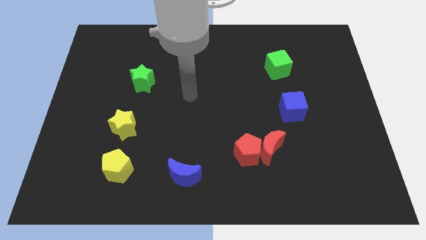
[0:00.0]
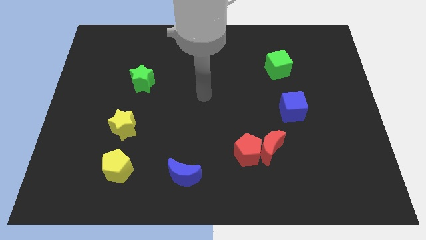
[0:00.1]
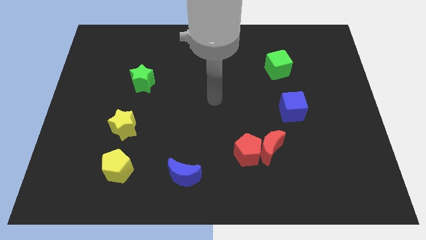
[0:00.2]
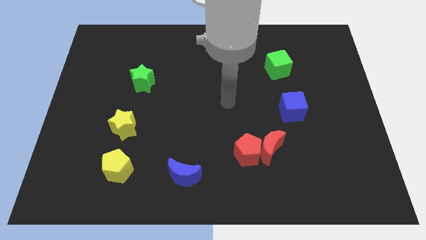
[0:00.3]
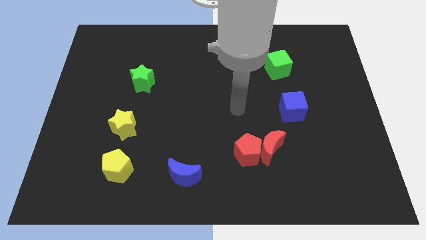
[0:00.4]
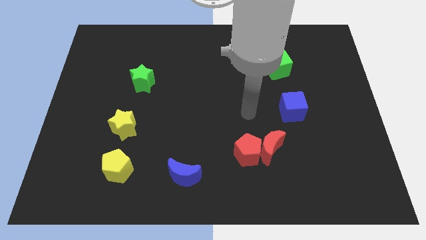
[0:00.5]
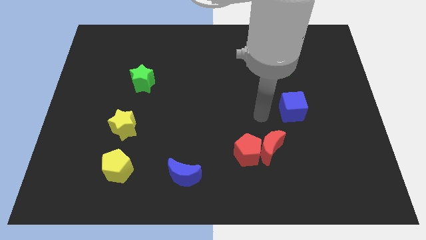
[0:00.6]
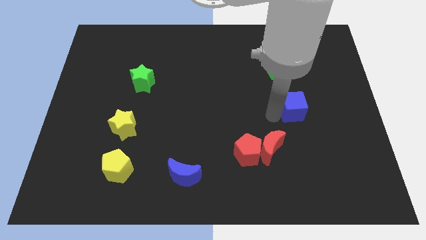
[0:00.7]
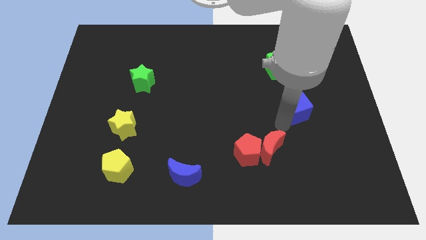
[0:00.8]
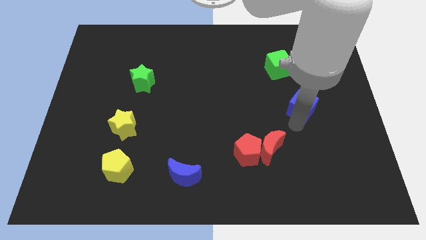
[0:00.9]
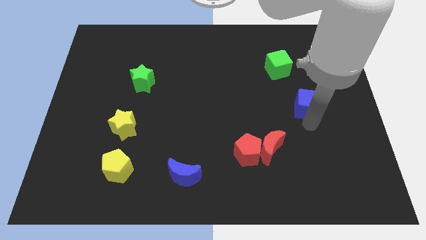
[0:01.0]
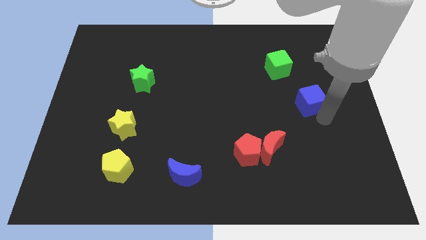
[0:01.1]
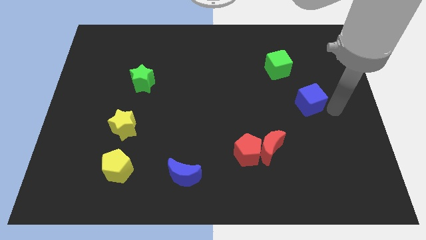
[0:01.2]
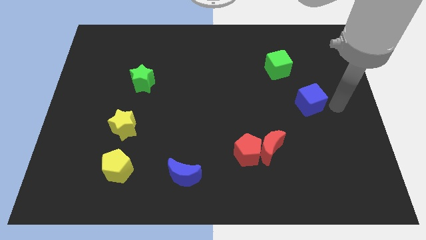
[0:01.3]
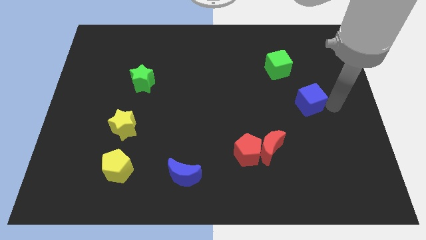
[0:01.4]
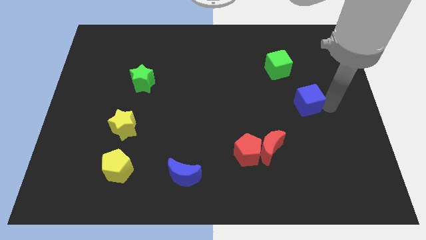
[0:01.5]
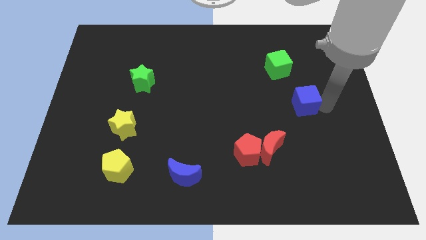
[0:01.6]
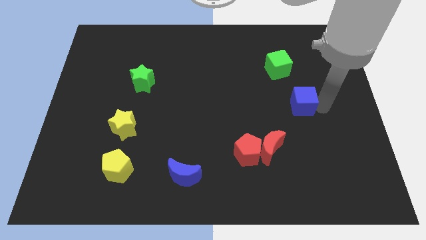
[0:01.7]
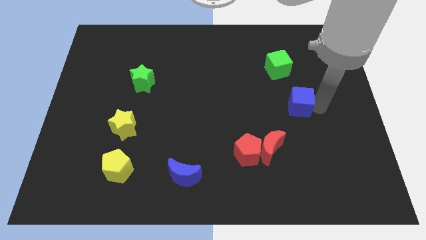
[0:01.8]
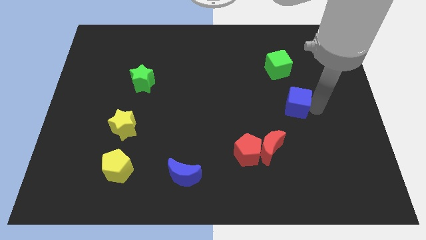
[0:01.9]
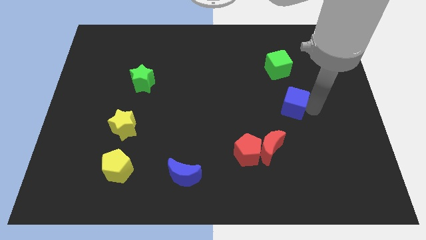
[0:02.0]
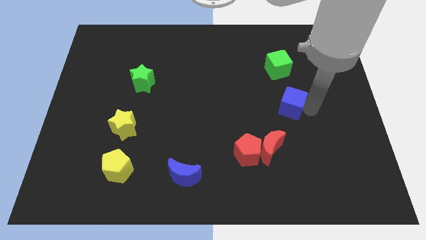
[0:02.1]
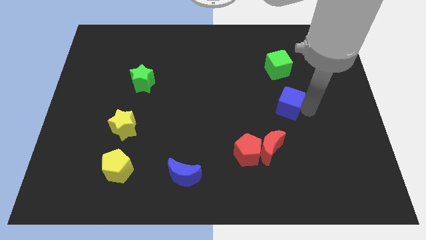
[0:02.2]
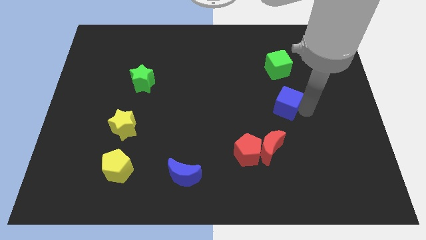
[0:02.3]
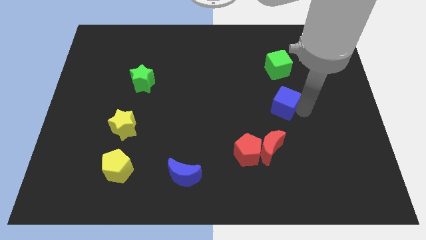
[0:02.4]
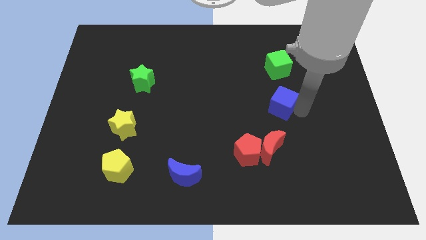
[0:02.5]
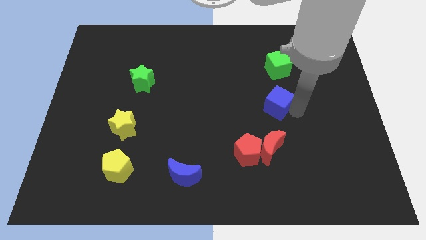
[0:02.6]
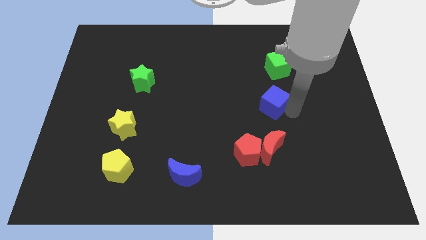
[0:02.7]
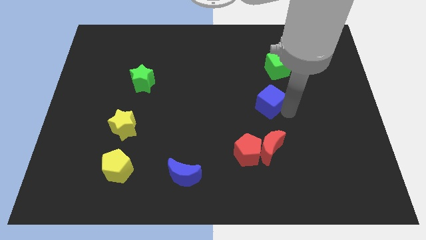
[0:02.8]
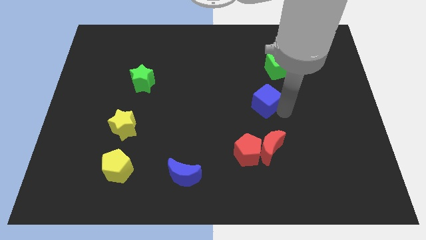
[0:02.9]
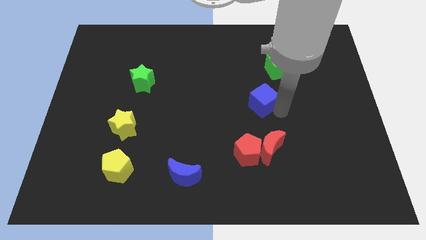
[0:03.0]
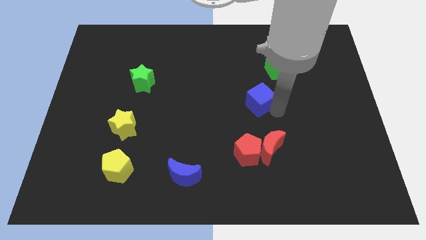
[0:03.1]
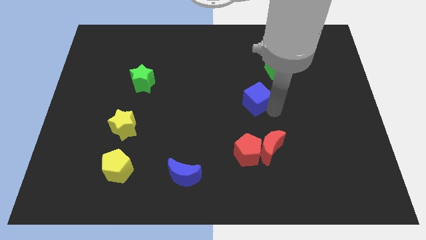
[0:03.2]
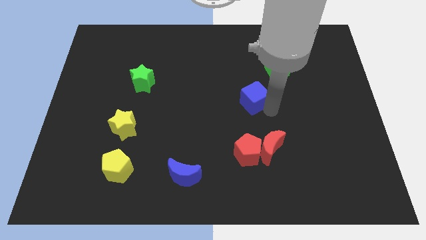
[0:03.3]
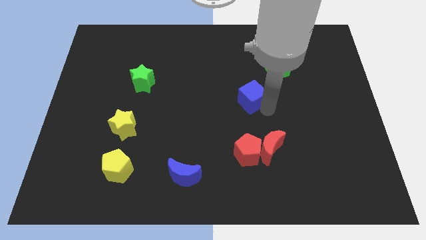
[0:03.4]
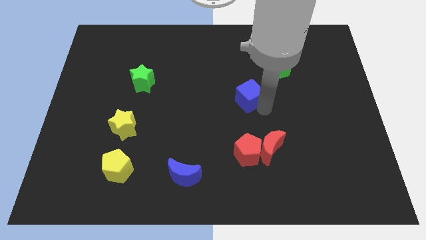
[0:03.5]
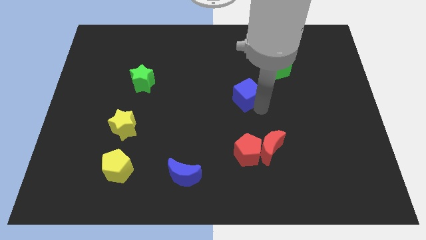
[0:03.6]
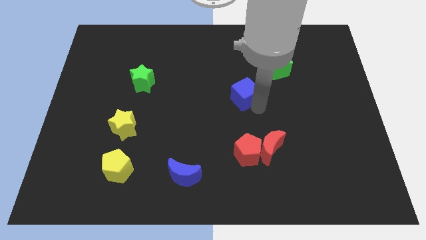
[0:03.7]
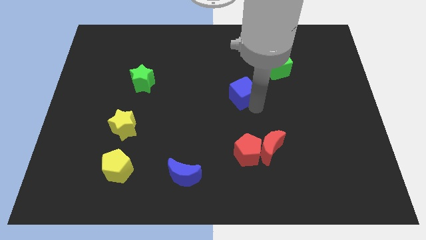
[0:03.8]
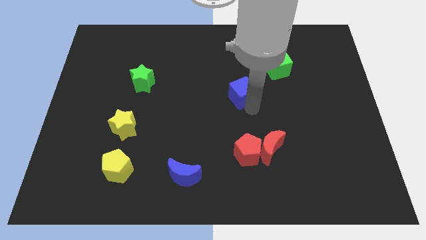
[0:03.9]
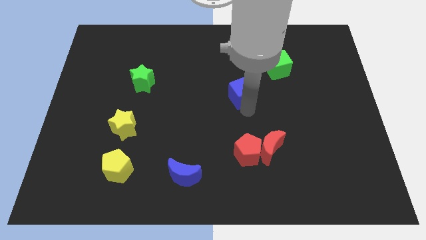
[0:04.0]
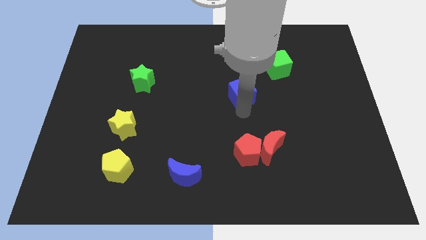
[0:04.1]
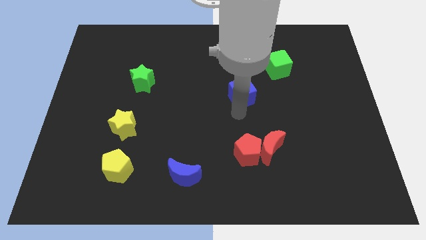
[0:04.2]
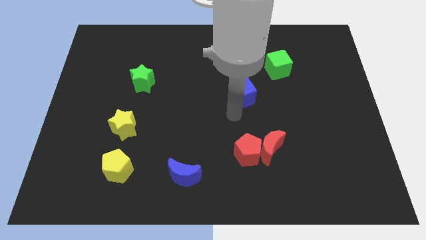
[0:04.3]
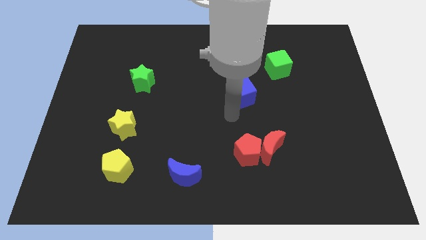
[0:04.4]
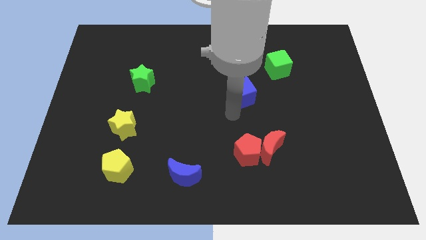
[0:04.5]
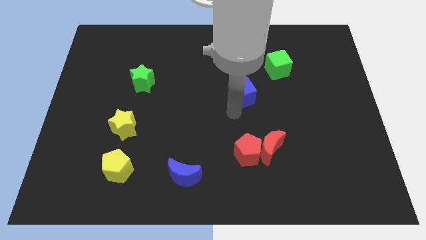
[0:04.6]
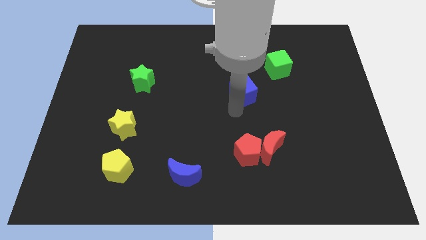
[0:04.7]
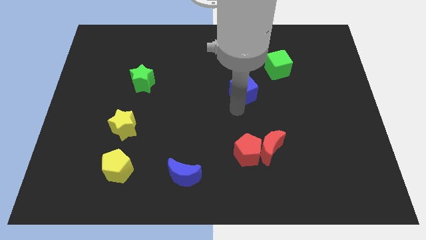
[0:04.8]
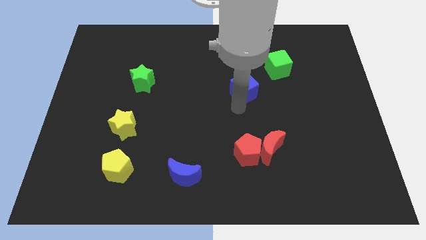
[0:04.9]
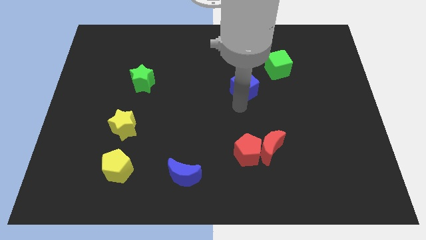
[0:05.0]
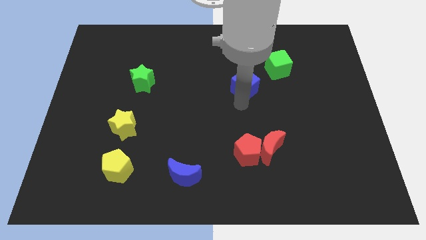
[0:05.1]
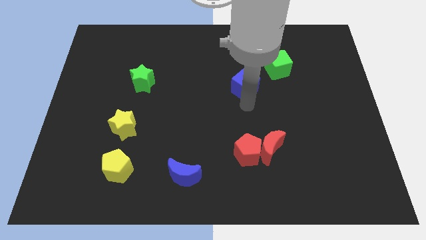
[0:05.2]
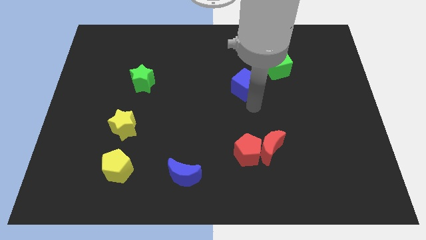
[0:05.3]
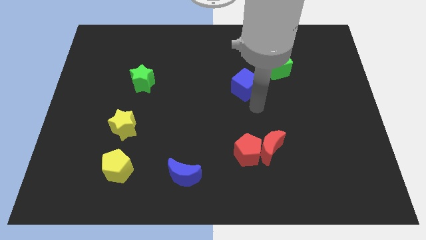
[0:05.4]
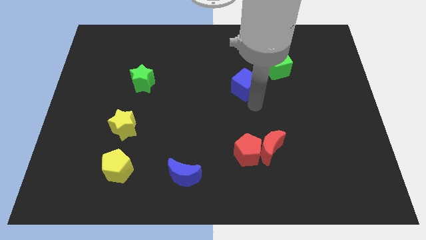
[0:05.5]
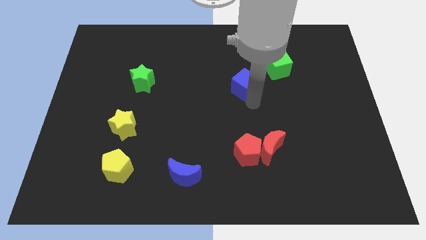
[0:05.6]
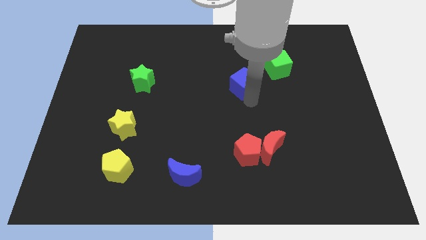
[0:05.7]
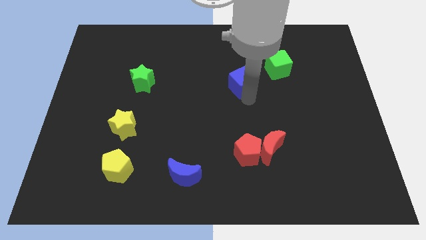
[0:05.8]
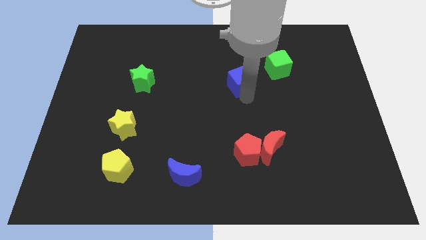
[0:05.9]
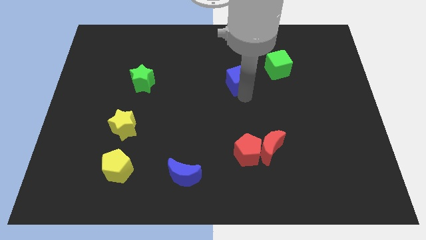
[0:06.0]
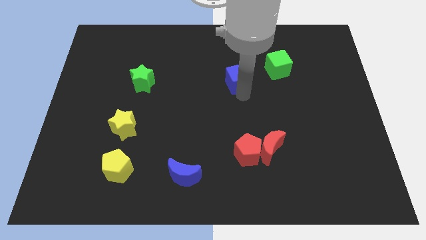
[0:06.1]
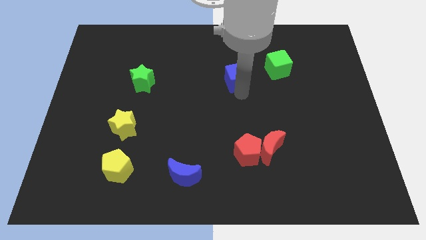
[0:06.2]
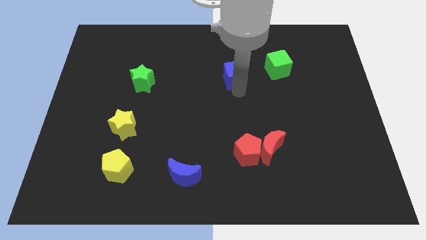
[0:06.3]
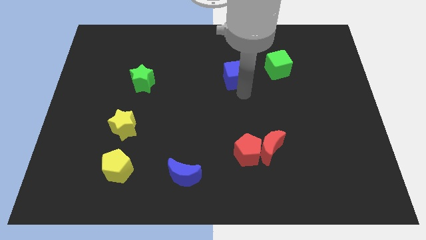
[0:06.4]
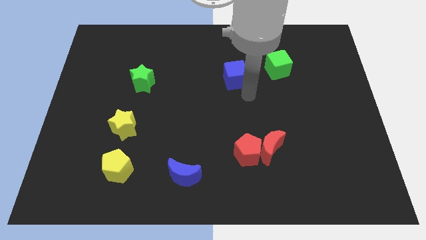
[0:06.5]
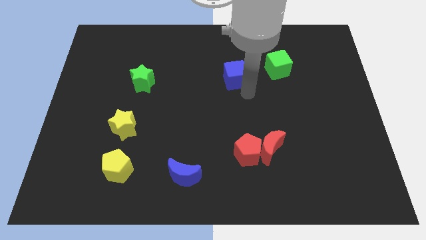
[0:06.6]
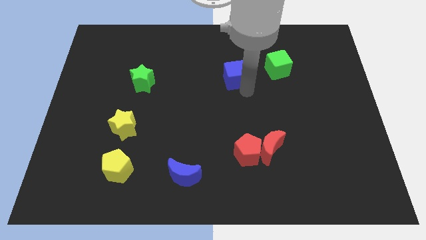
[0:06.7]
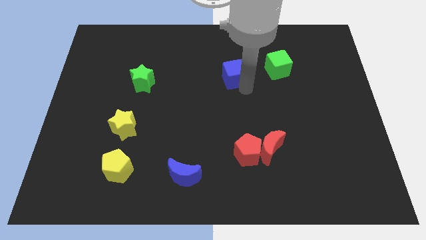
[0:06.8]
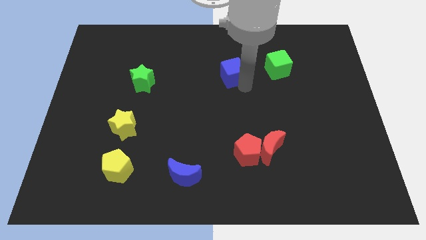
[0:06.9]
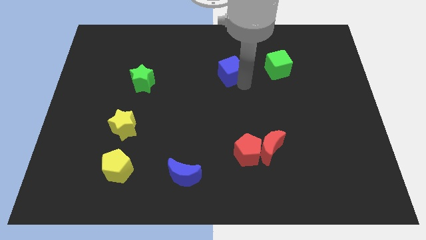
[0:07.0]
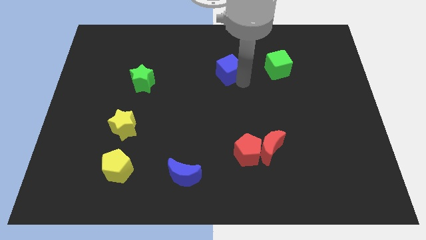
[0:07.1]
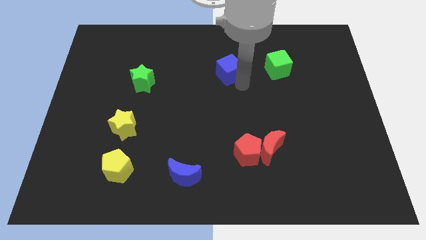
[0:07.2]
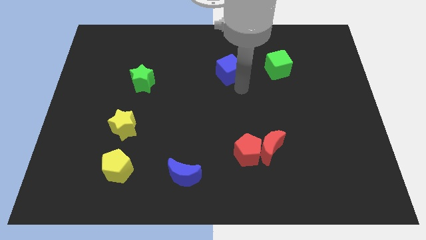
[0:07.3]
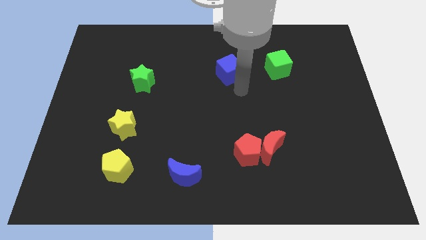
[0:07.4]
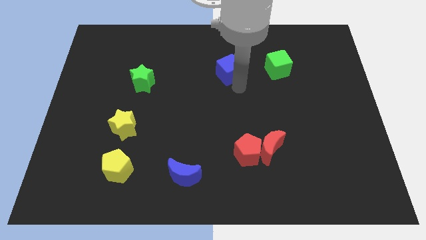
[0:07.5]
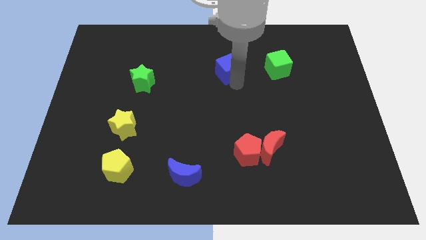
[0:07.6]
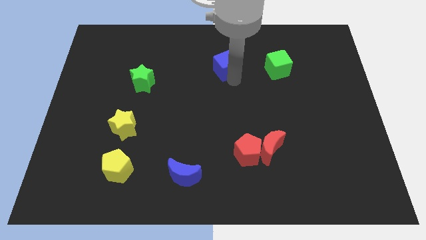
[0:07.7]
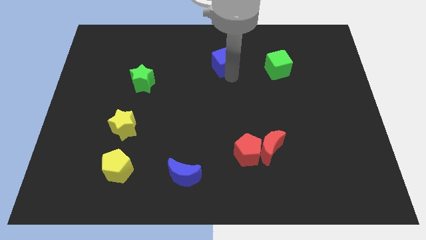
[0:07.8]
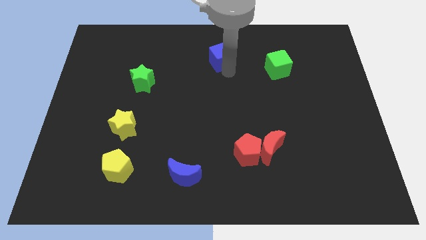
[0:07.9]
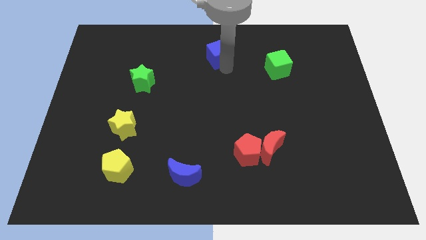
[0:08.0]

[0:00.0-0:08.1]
put the blue cube to the towards your base
